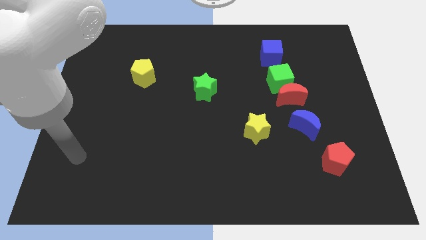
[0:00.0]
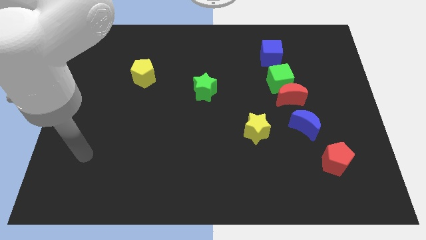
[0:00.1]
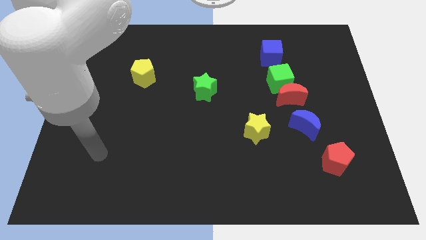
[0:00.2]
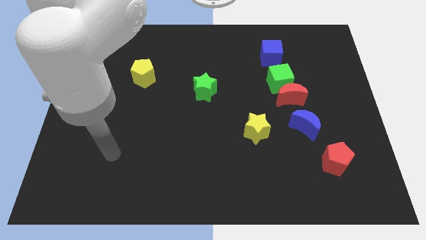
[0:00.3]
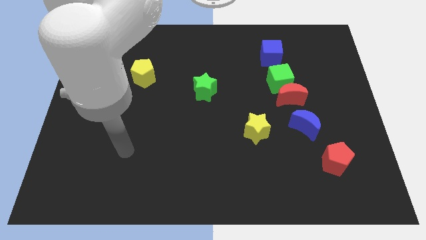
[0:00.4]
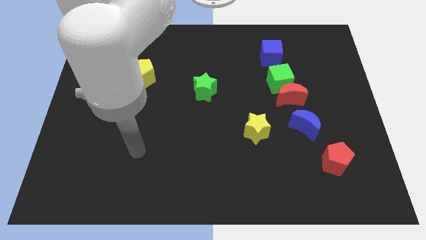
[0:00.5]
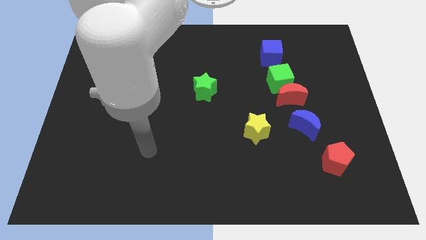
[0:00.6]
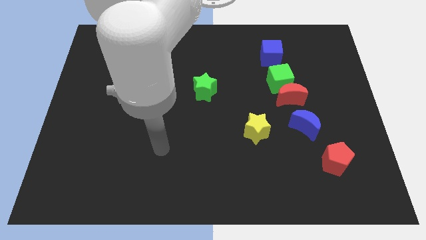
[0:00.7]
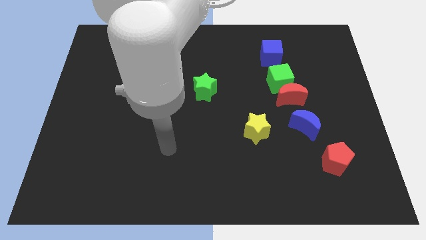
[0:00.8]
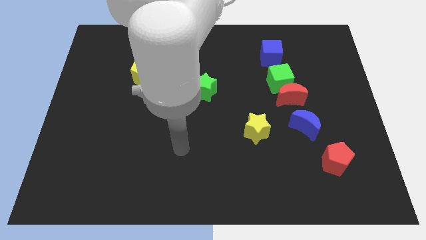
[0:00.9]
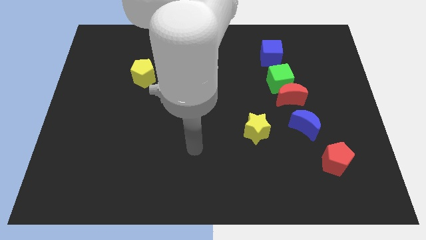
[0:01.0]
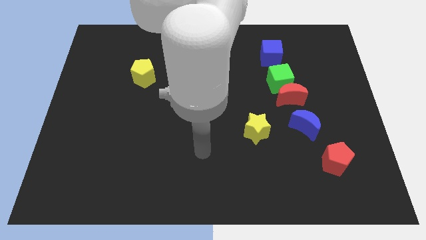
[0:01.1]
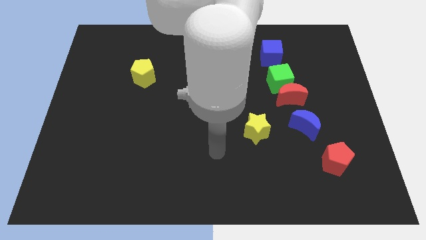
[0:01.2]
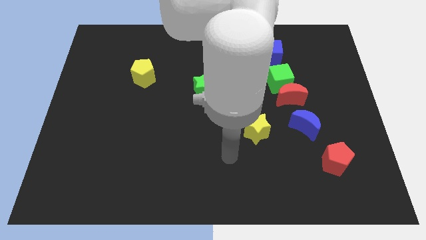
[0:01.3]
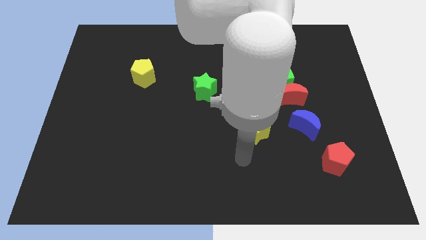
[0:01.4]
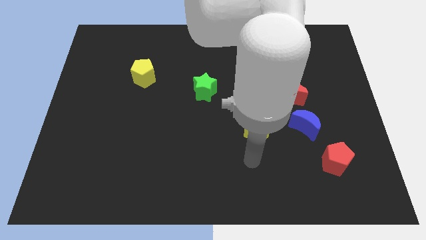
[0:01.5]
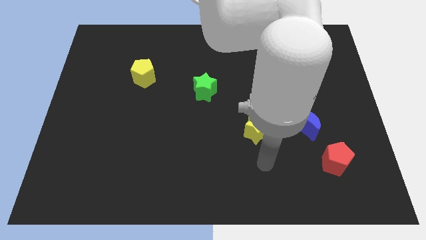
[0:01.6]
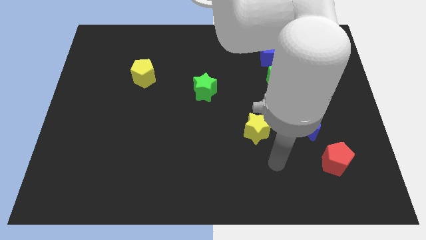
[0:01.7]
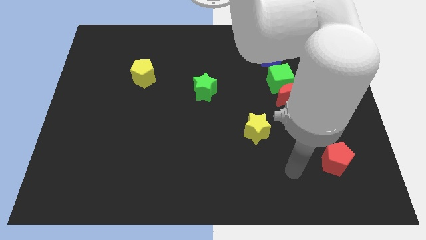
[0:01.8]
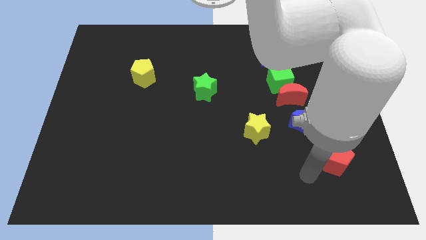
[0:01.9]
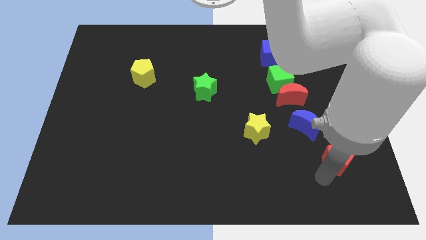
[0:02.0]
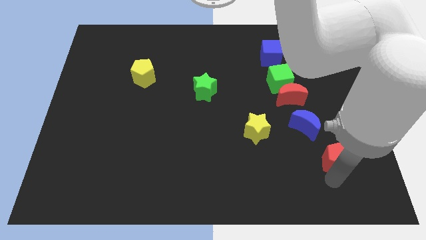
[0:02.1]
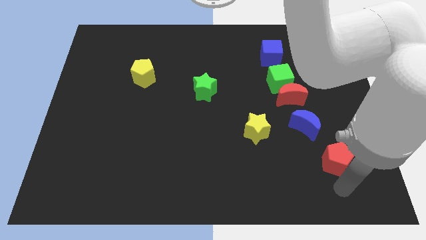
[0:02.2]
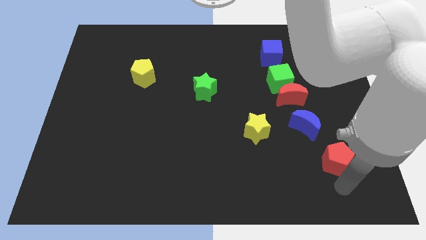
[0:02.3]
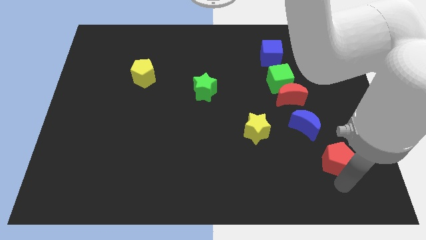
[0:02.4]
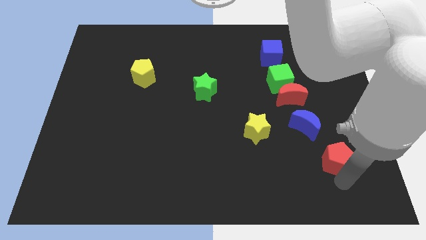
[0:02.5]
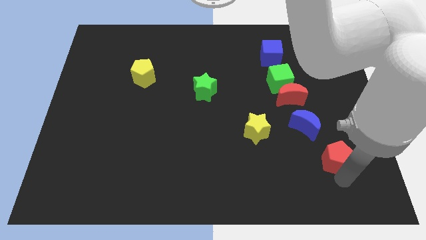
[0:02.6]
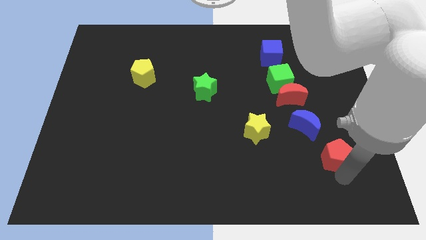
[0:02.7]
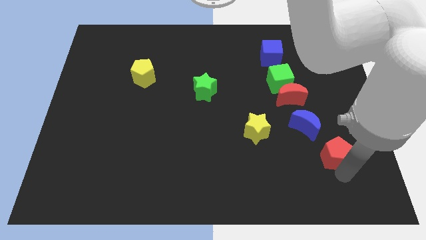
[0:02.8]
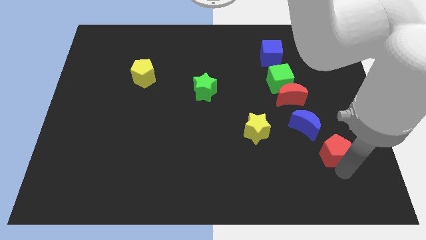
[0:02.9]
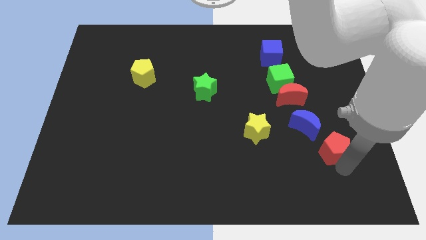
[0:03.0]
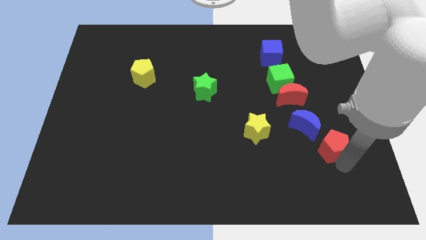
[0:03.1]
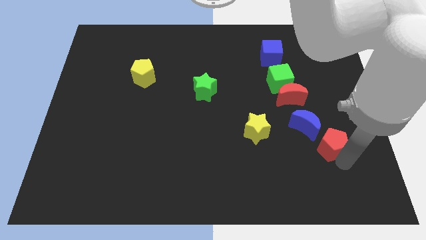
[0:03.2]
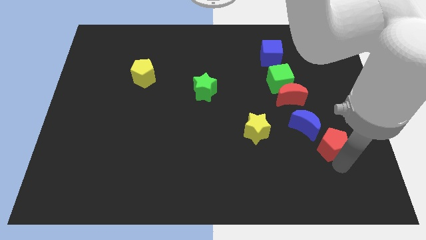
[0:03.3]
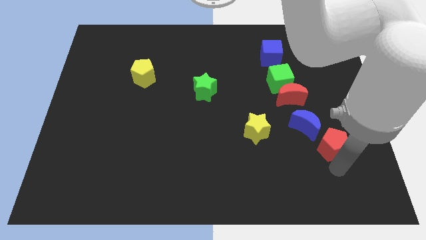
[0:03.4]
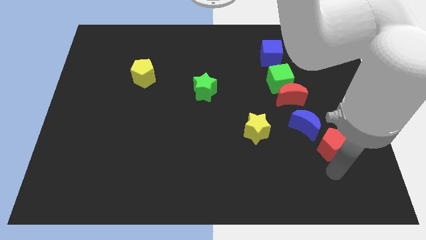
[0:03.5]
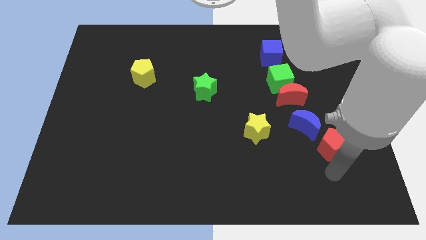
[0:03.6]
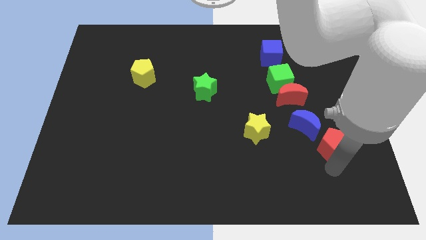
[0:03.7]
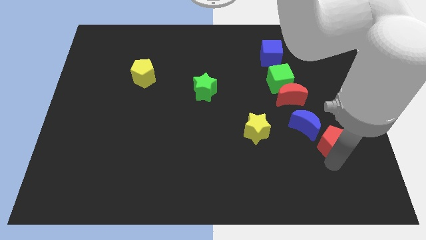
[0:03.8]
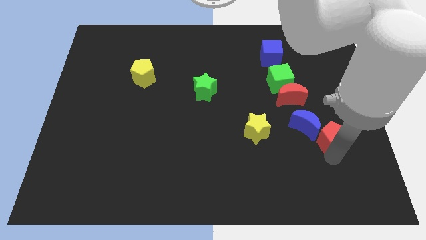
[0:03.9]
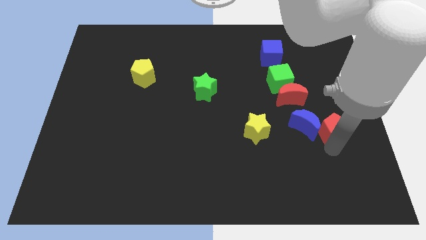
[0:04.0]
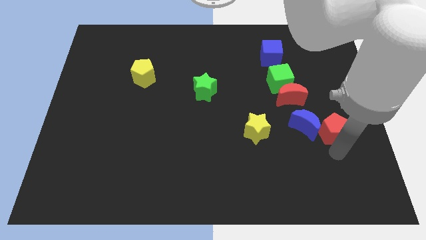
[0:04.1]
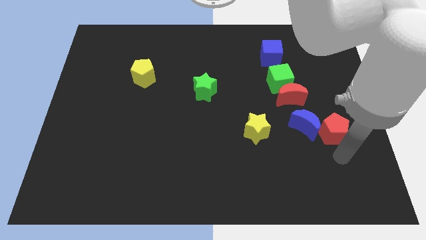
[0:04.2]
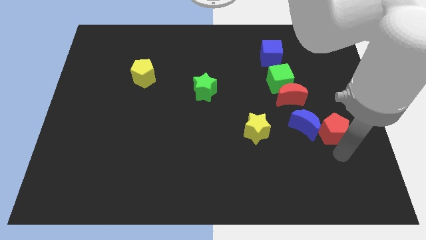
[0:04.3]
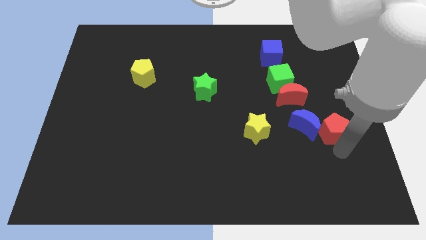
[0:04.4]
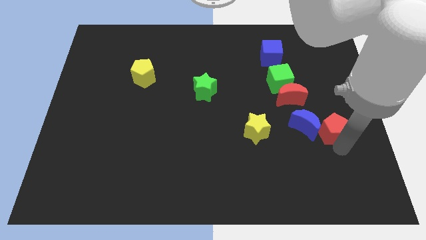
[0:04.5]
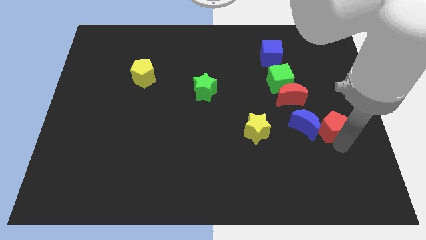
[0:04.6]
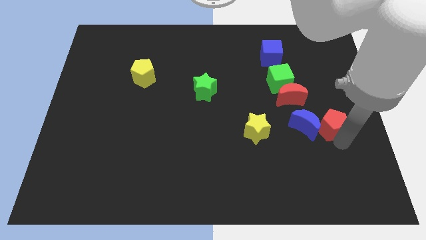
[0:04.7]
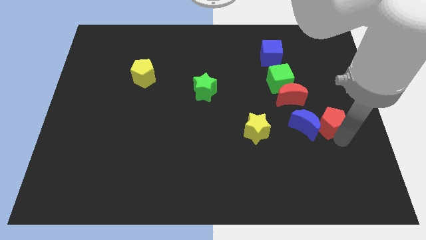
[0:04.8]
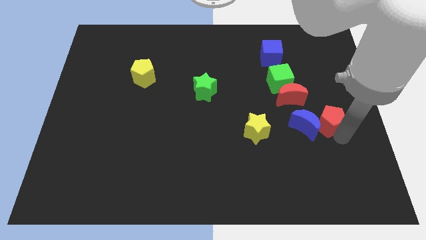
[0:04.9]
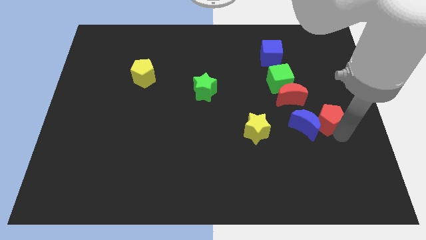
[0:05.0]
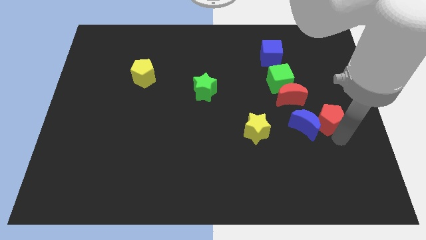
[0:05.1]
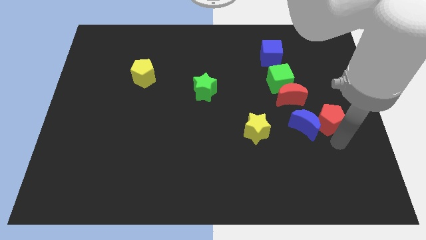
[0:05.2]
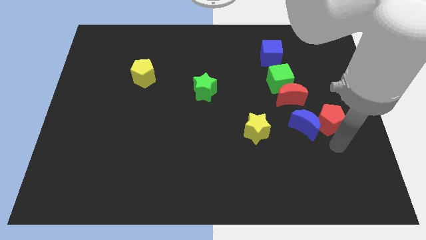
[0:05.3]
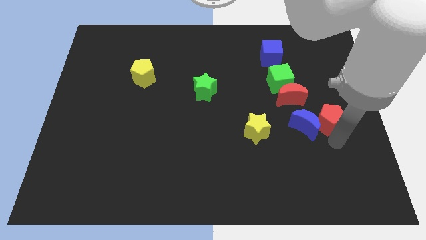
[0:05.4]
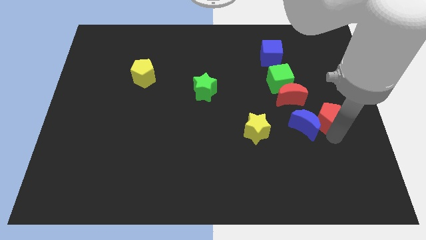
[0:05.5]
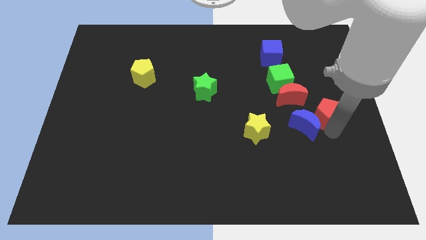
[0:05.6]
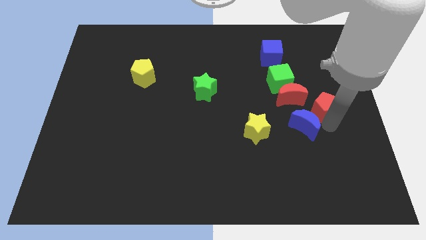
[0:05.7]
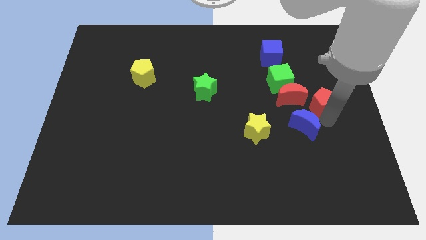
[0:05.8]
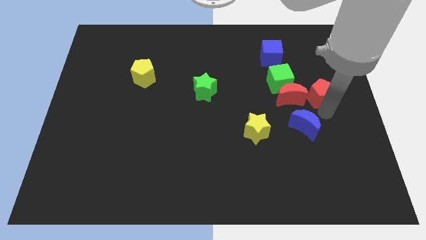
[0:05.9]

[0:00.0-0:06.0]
push the red pentagon to the top right of the red moon
